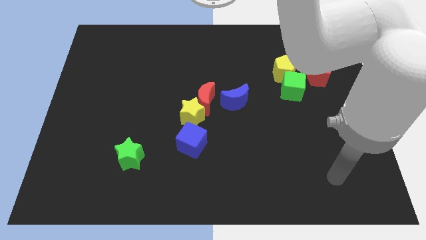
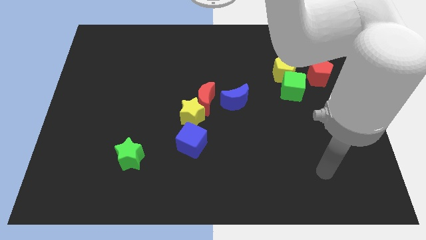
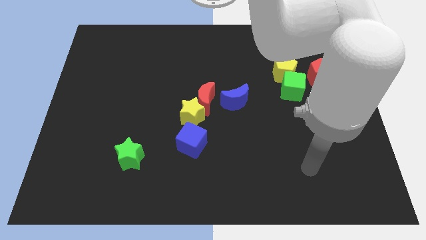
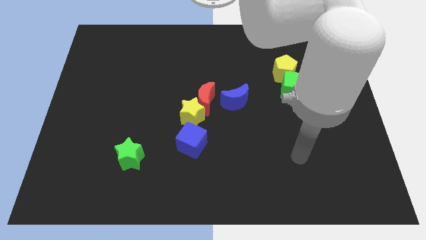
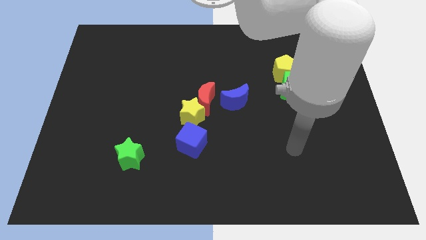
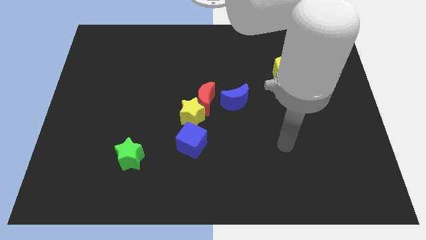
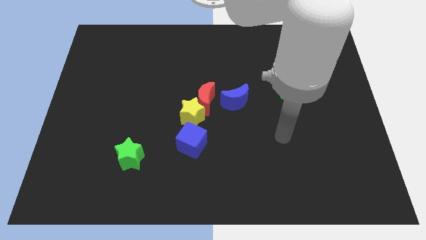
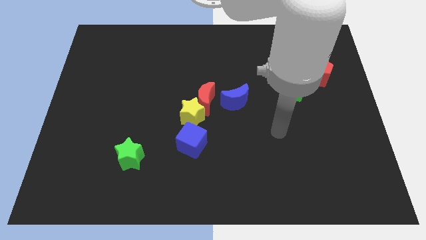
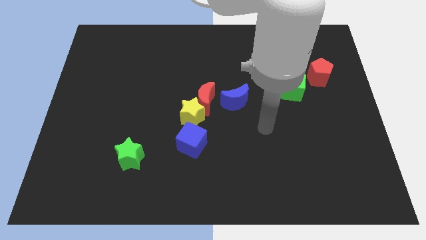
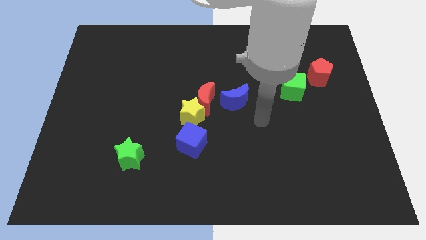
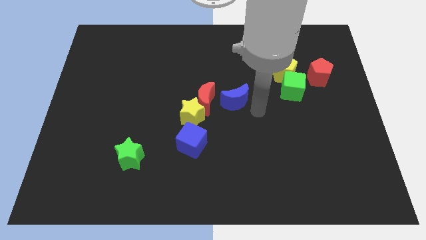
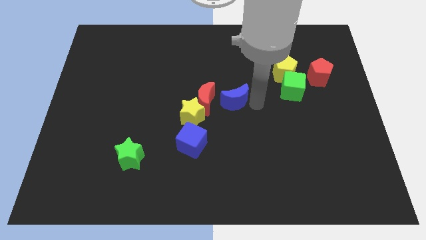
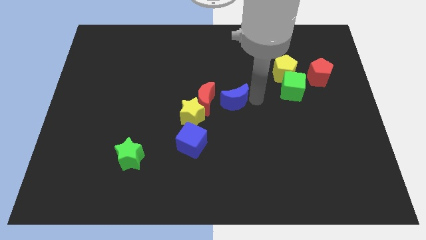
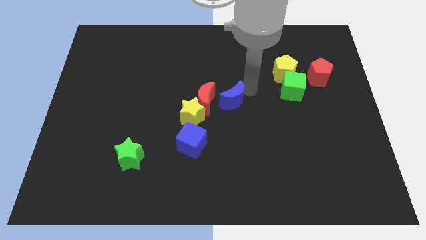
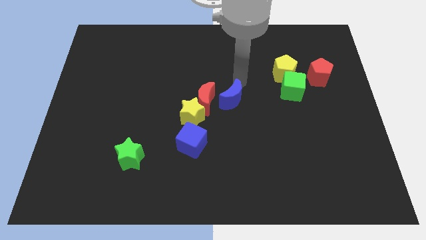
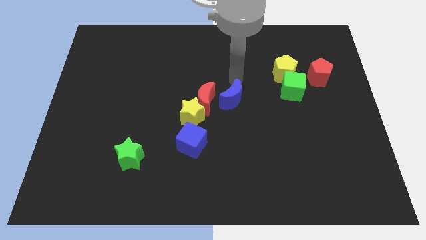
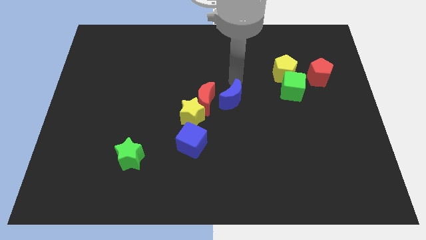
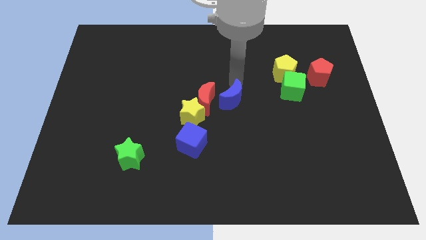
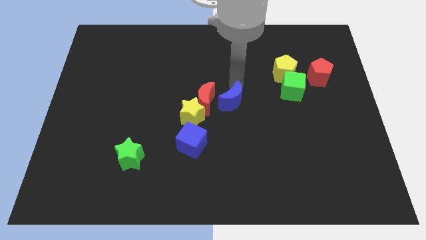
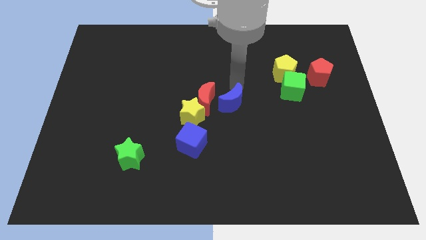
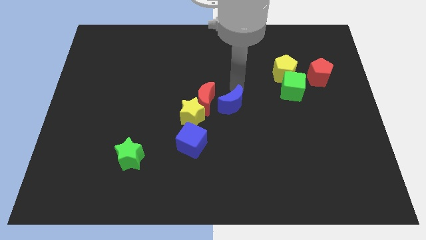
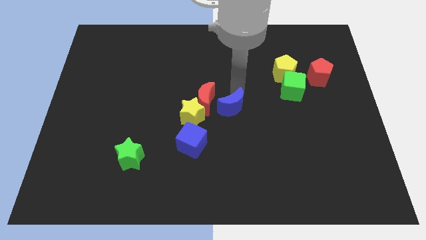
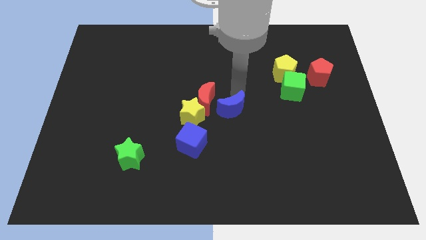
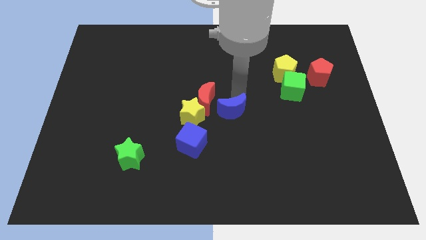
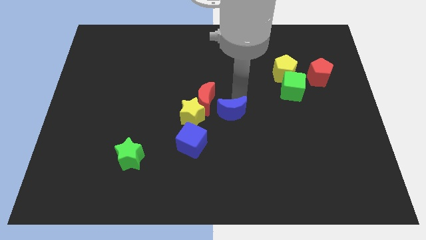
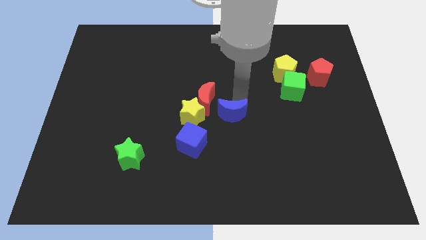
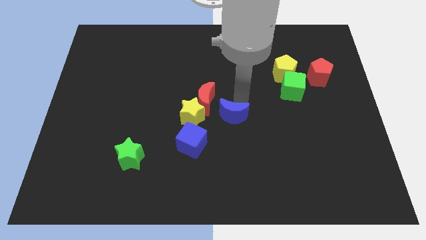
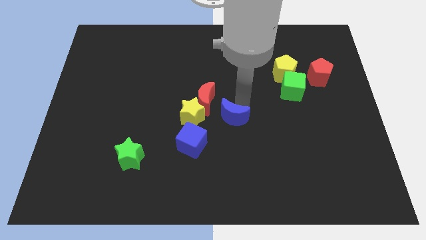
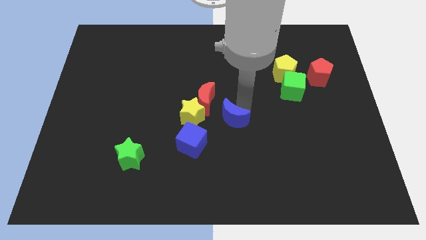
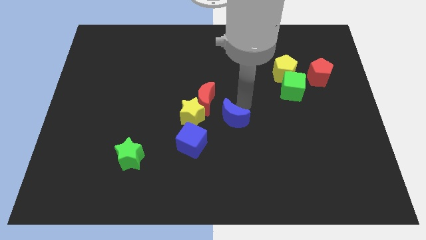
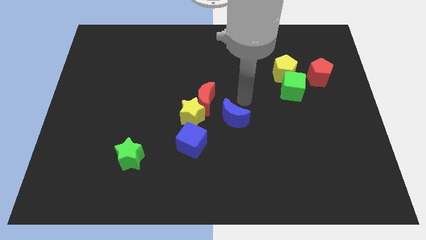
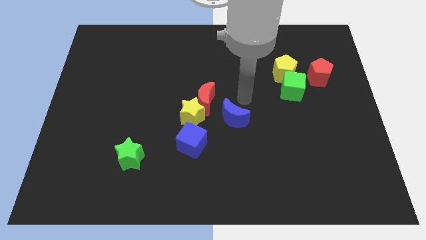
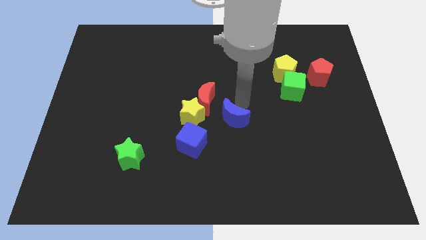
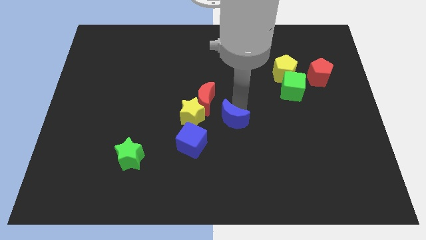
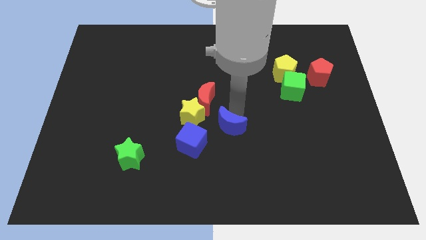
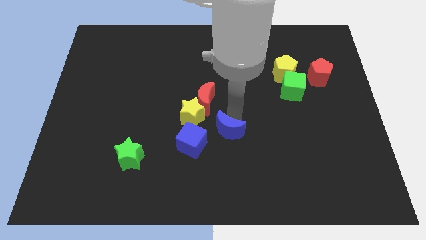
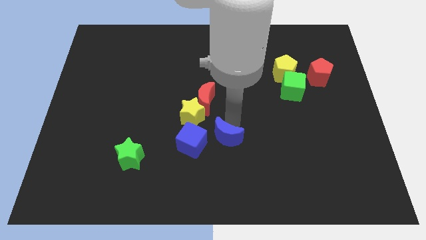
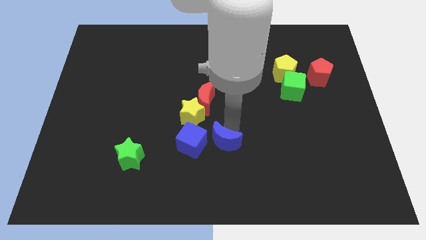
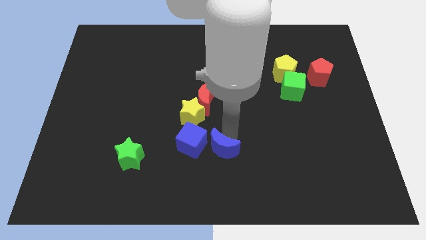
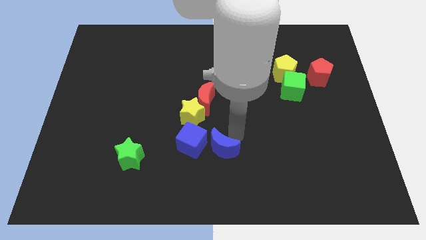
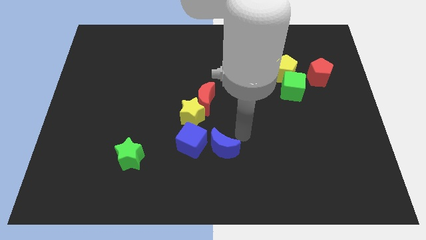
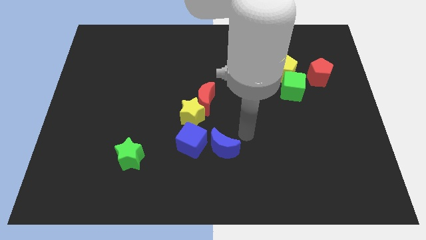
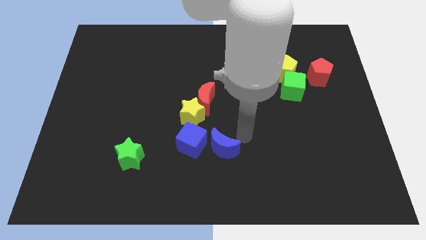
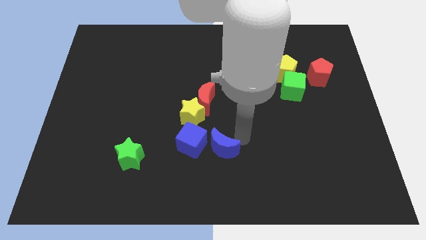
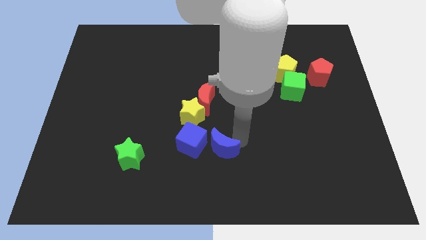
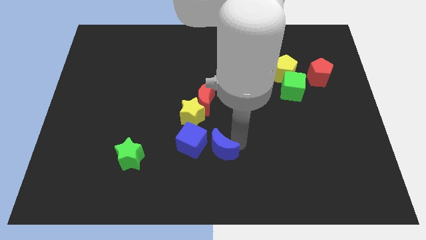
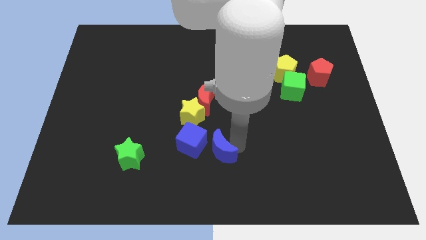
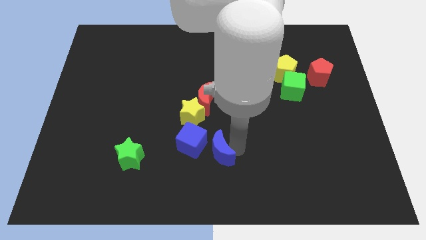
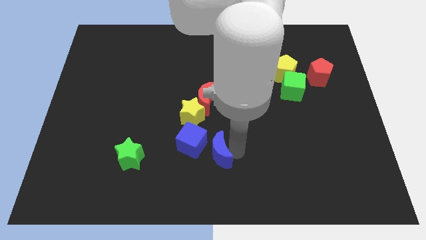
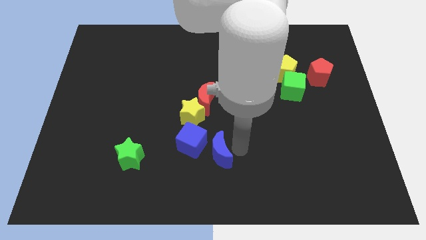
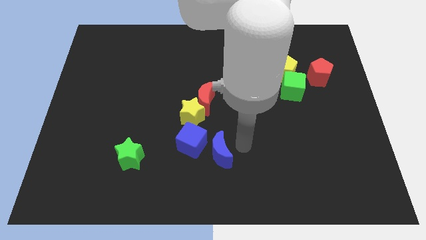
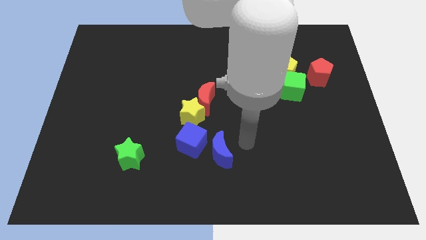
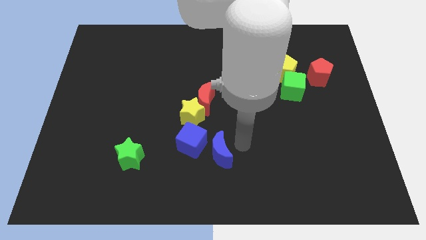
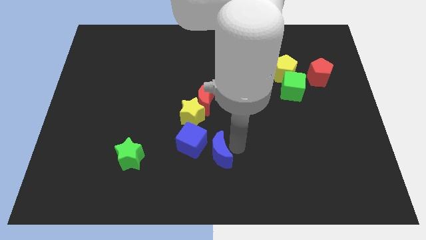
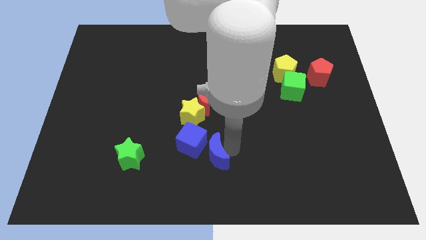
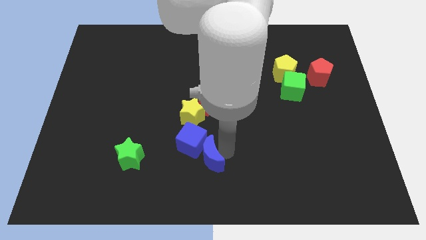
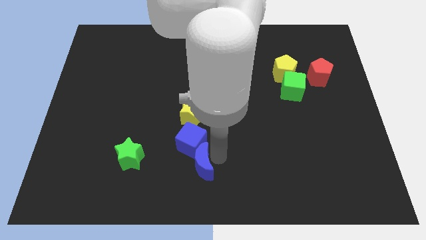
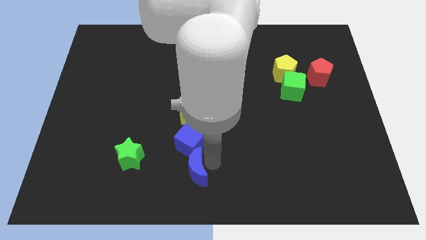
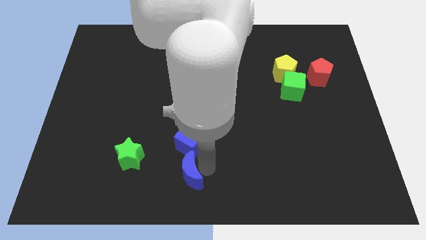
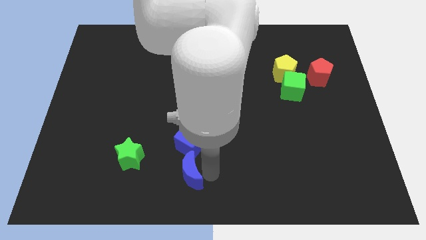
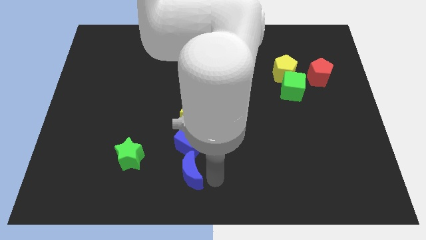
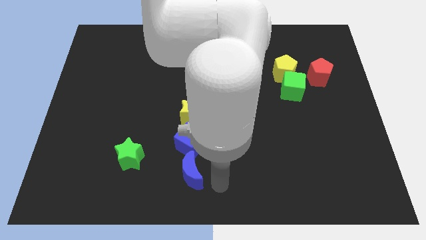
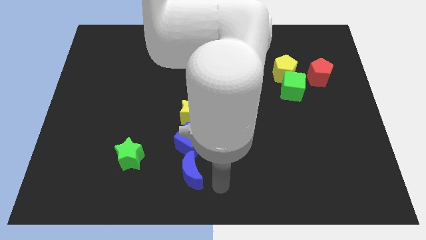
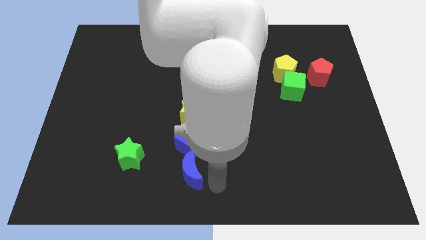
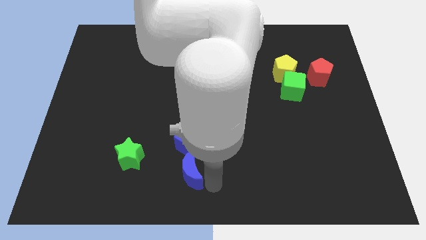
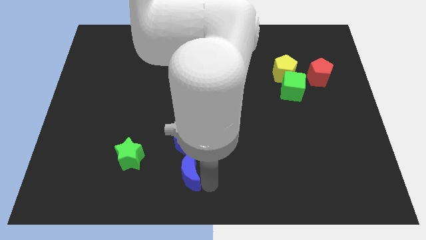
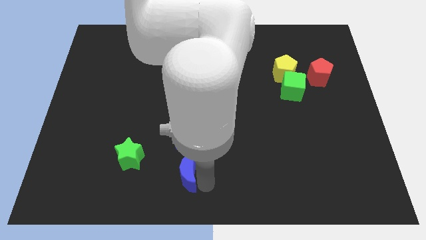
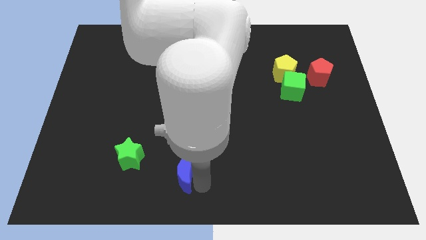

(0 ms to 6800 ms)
slide the blue moon diagonally down and to the left of the blue cube

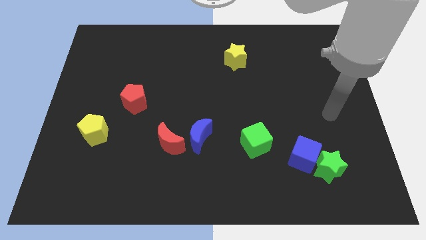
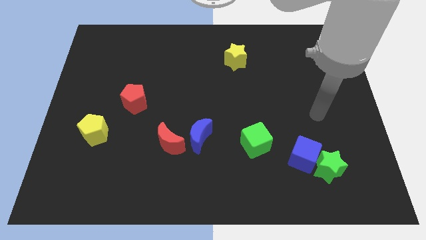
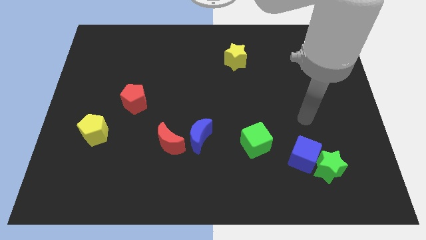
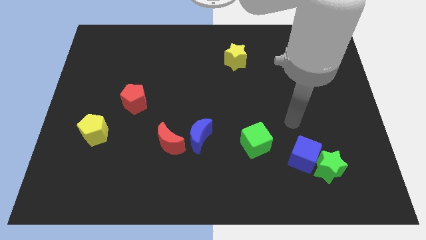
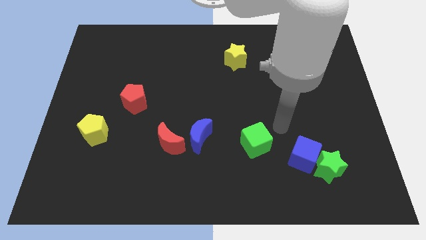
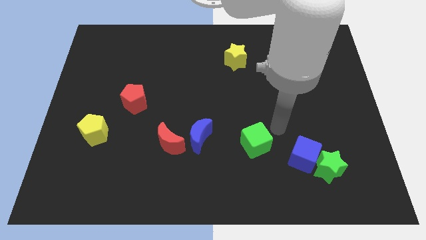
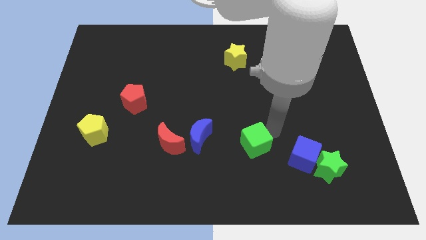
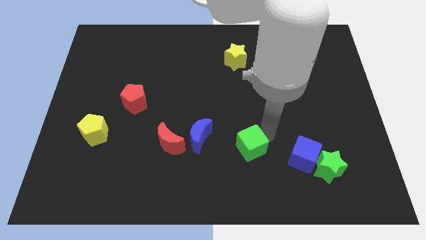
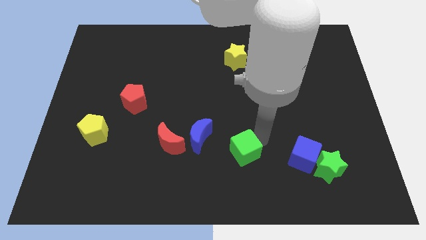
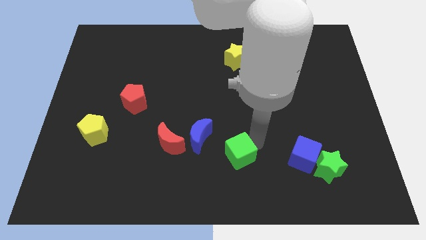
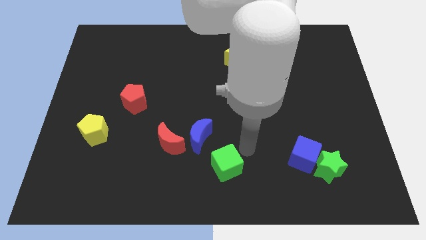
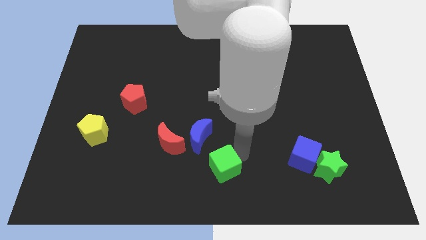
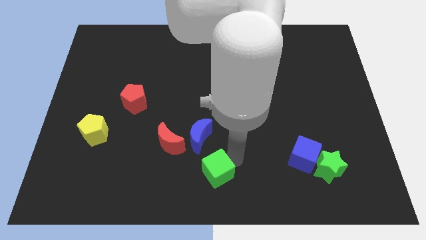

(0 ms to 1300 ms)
move the green cube to the bottom of the blue moon
